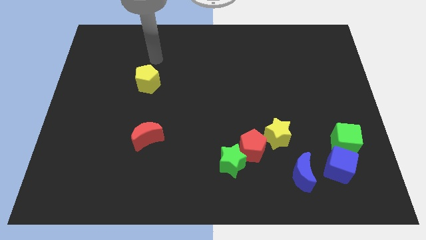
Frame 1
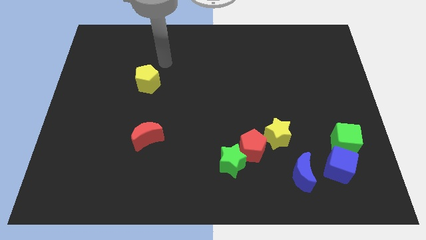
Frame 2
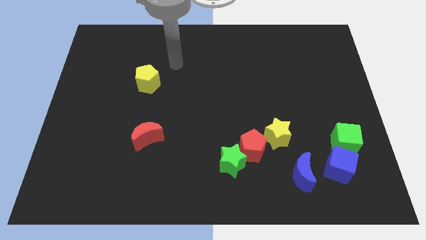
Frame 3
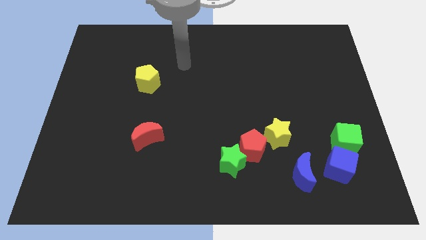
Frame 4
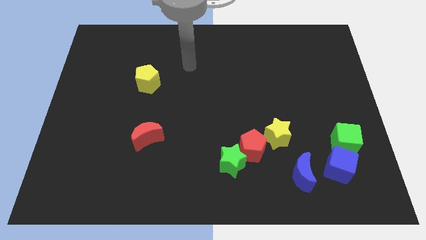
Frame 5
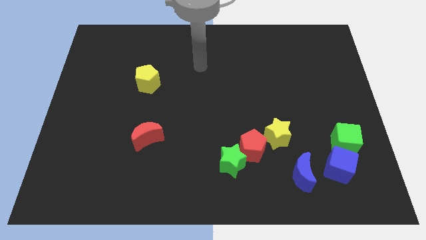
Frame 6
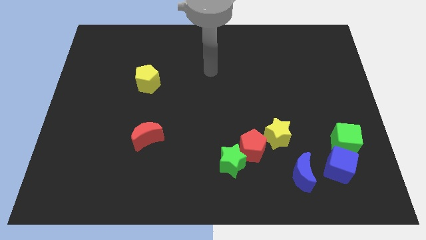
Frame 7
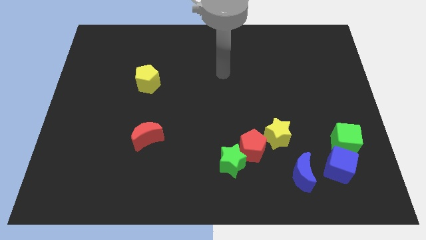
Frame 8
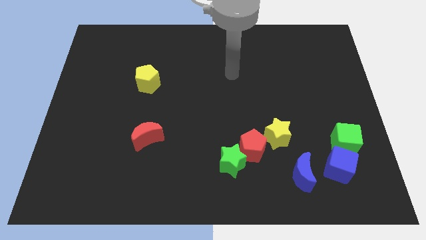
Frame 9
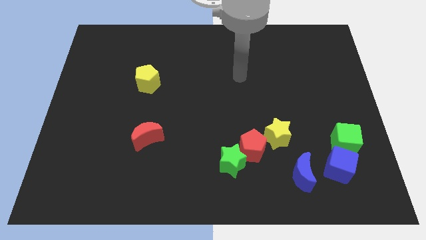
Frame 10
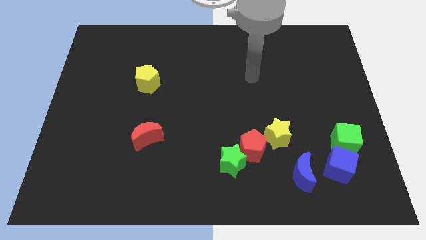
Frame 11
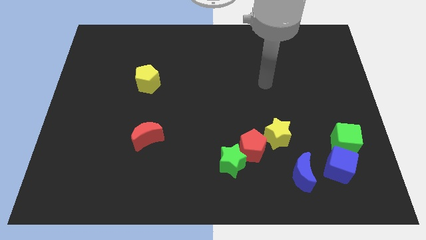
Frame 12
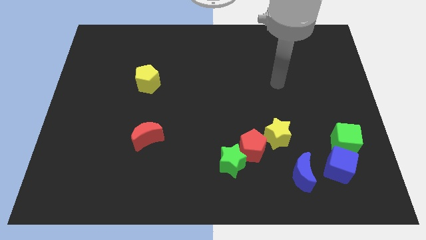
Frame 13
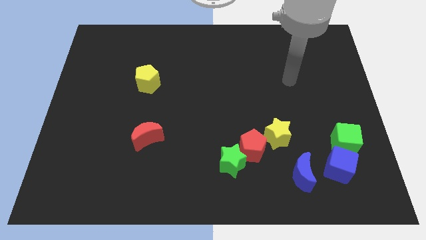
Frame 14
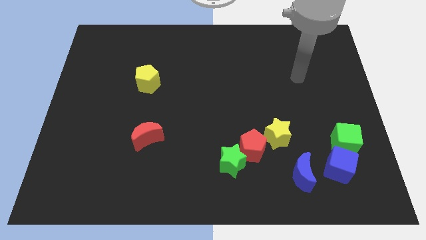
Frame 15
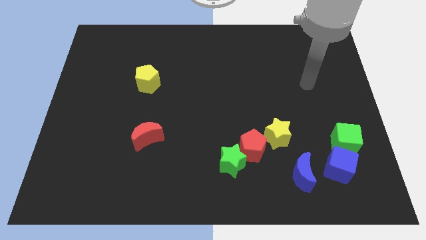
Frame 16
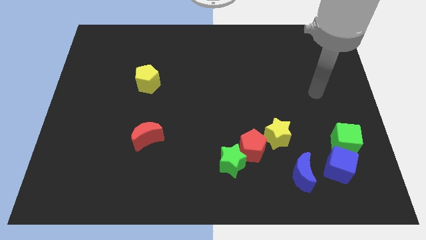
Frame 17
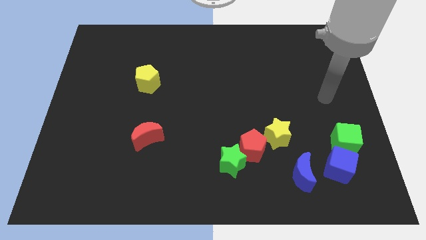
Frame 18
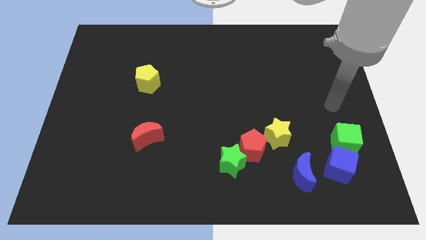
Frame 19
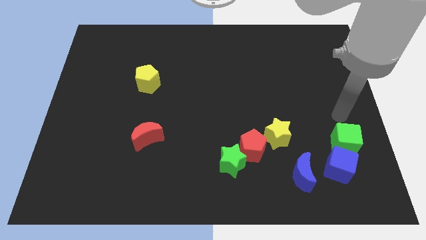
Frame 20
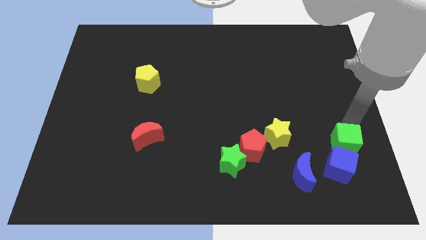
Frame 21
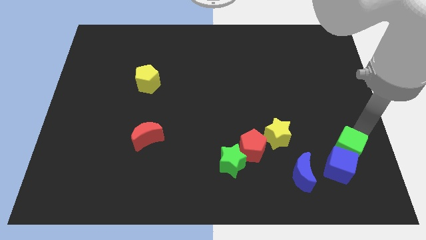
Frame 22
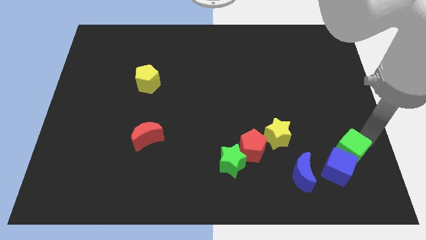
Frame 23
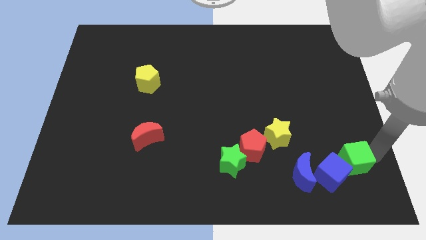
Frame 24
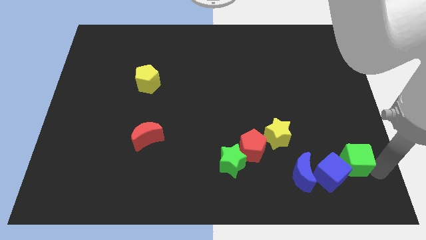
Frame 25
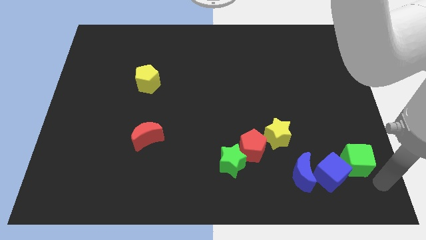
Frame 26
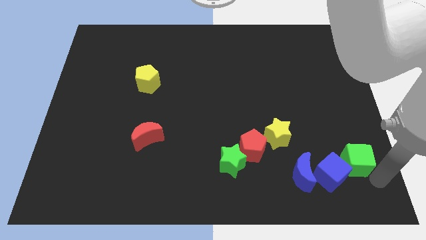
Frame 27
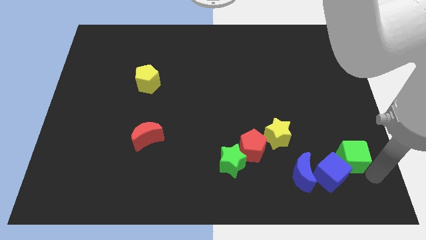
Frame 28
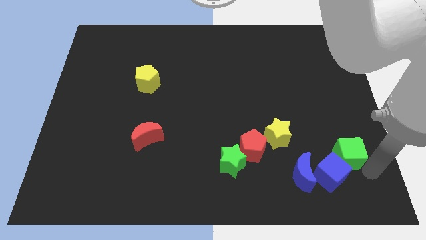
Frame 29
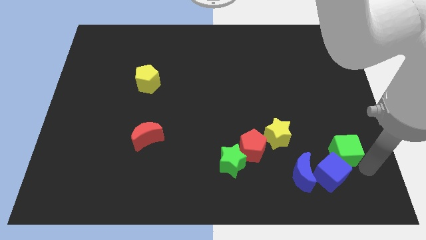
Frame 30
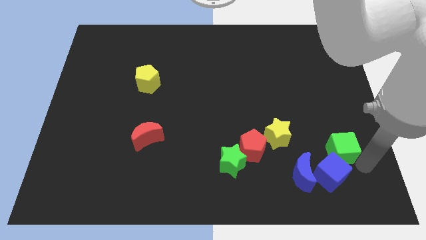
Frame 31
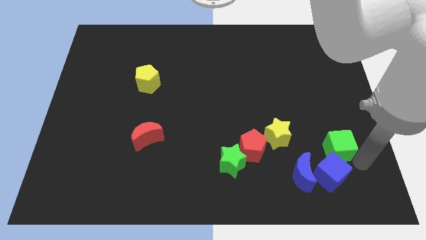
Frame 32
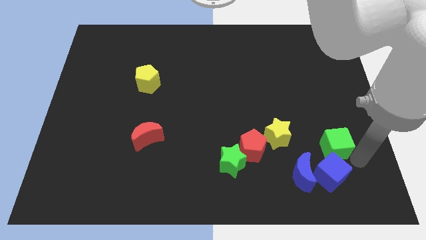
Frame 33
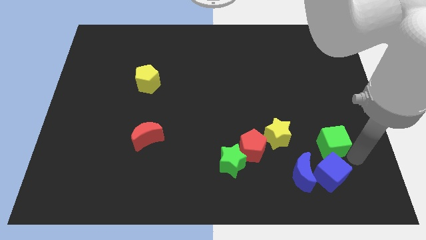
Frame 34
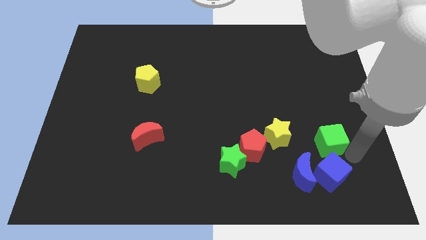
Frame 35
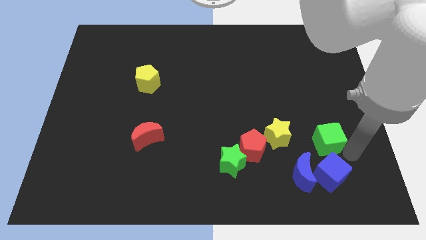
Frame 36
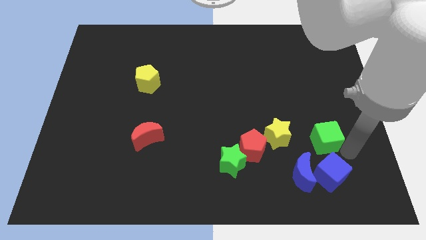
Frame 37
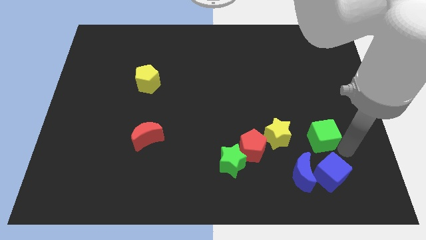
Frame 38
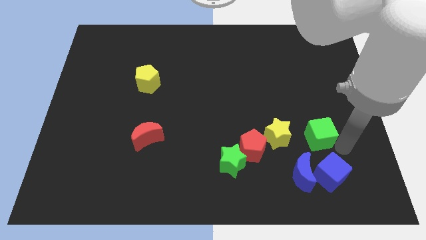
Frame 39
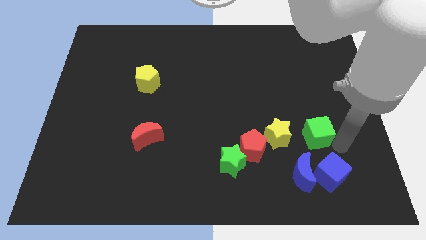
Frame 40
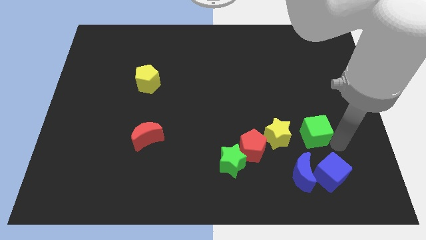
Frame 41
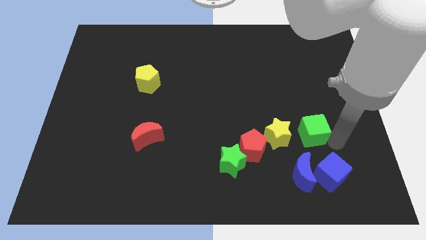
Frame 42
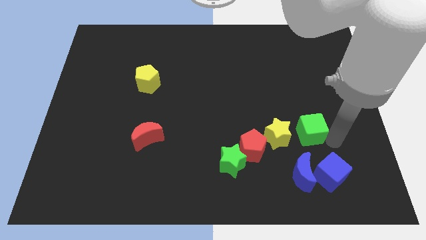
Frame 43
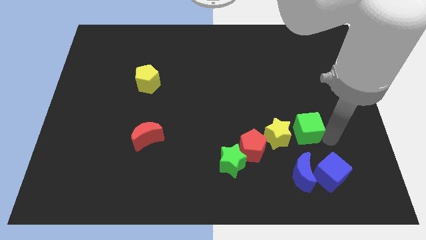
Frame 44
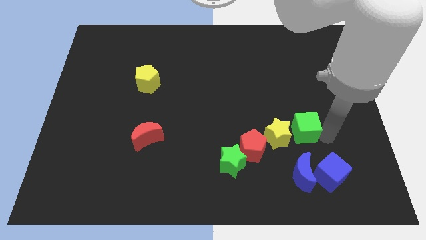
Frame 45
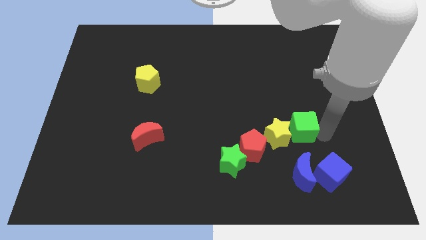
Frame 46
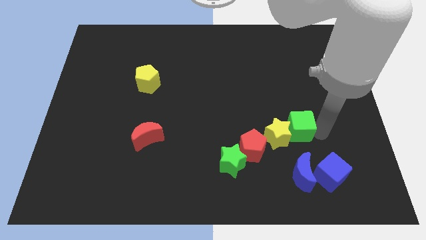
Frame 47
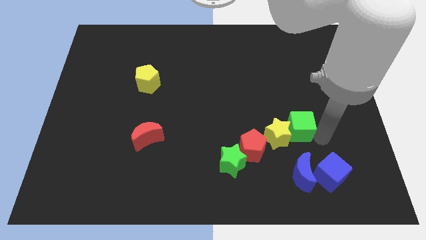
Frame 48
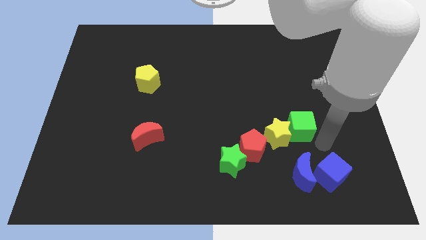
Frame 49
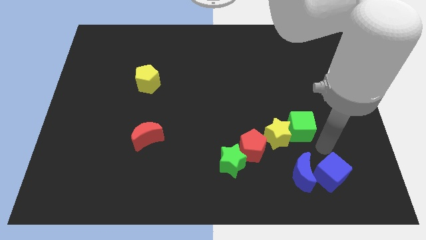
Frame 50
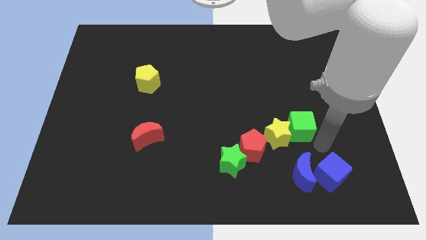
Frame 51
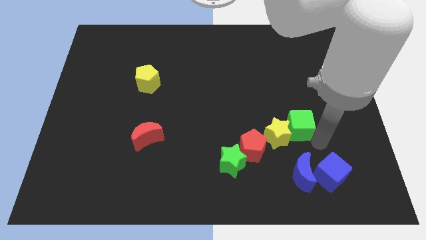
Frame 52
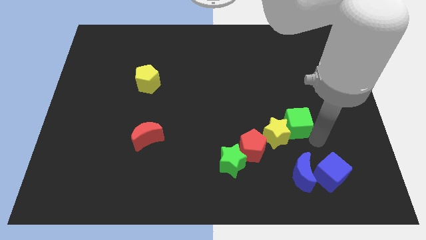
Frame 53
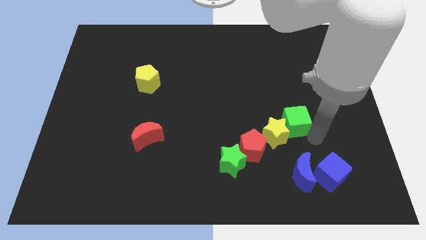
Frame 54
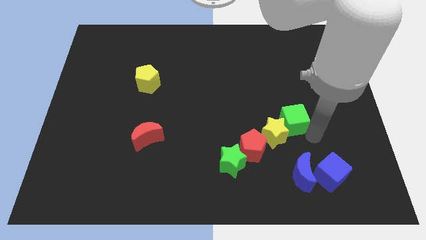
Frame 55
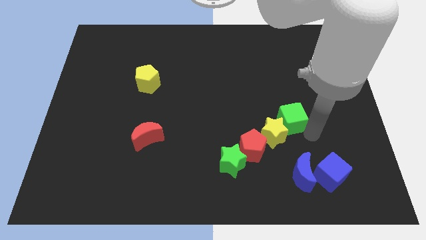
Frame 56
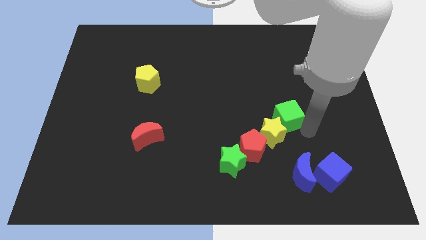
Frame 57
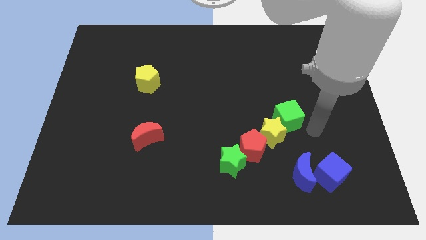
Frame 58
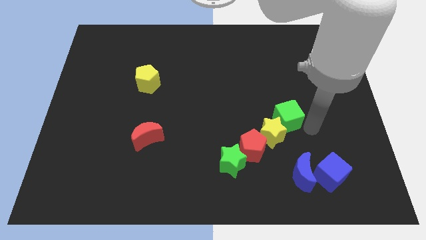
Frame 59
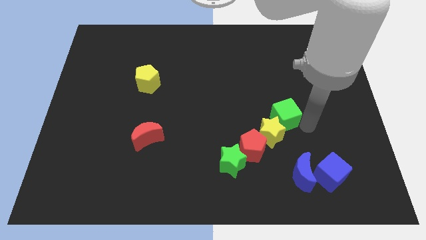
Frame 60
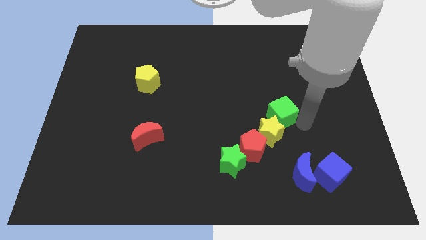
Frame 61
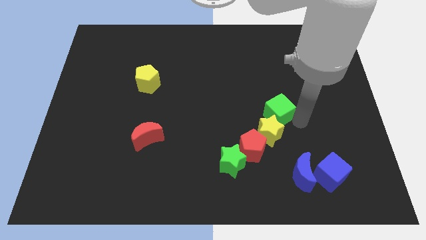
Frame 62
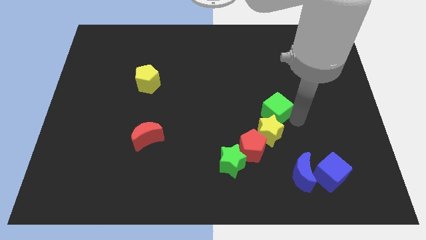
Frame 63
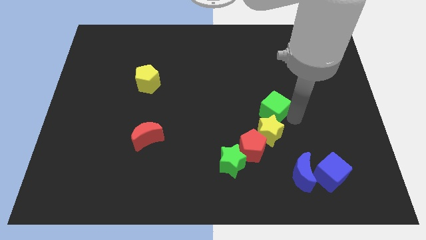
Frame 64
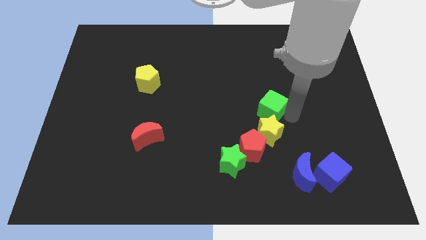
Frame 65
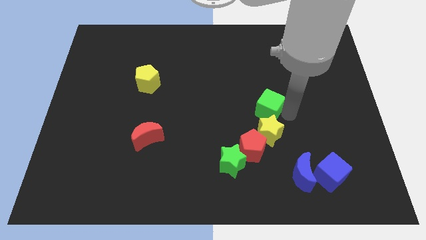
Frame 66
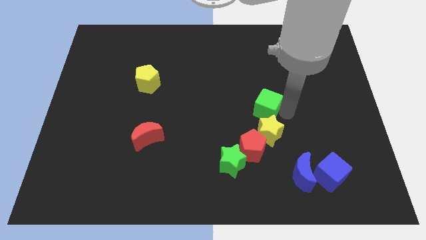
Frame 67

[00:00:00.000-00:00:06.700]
move the green cube to the center
